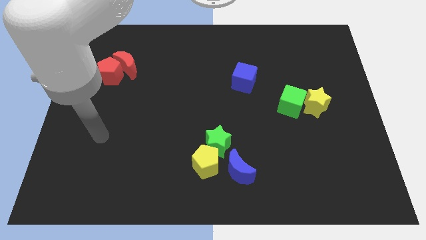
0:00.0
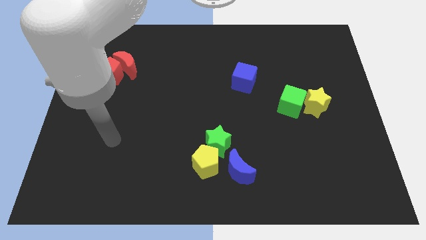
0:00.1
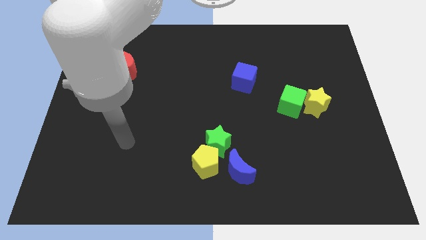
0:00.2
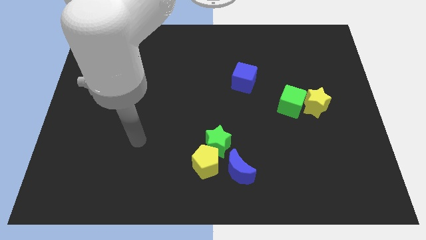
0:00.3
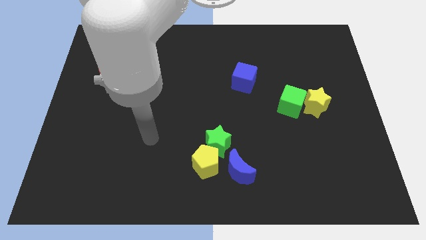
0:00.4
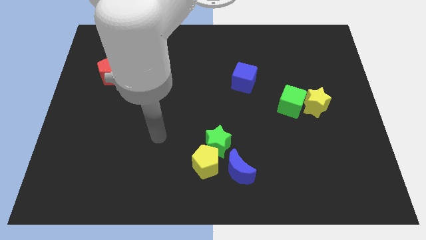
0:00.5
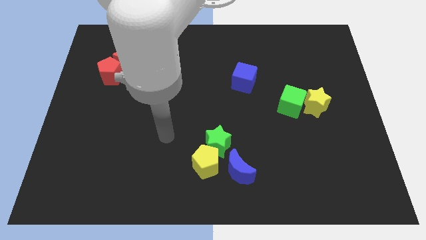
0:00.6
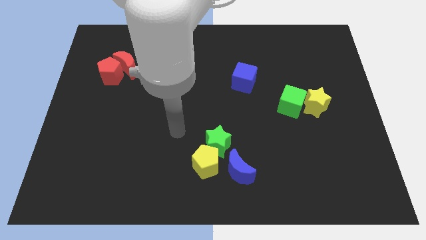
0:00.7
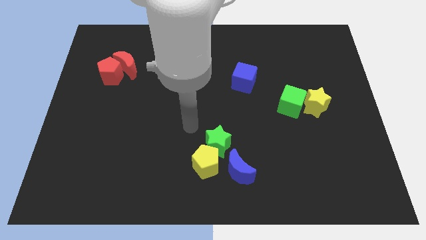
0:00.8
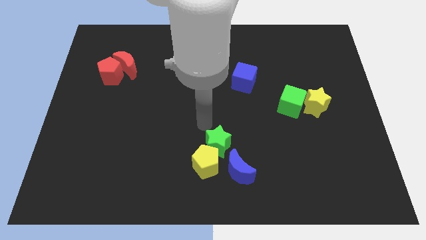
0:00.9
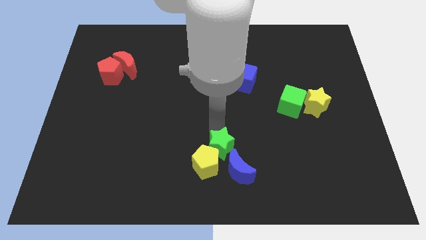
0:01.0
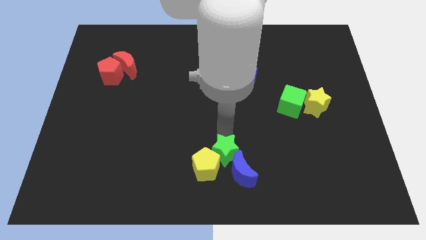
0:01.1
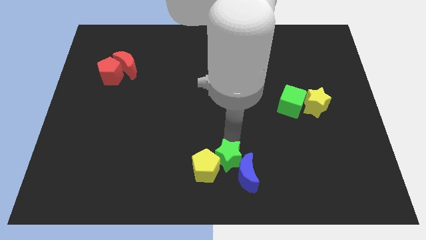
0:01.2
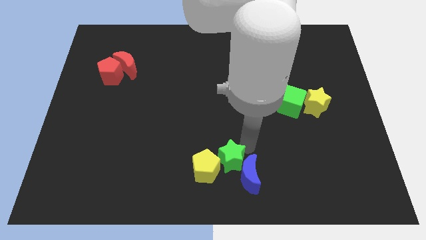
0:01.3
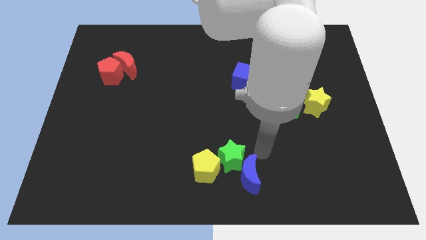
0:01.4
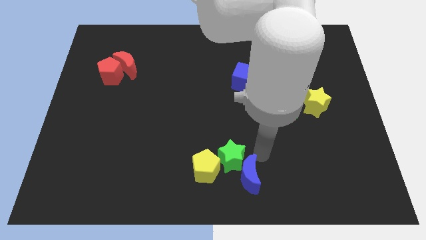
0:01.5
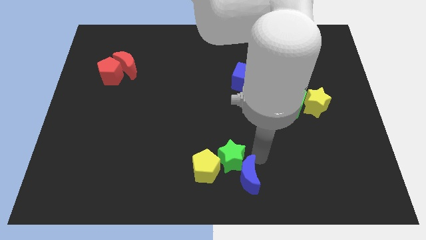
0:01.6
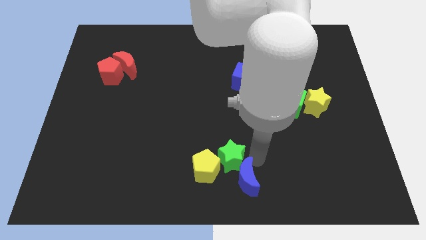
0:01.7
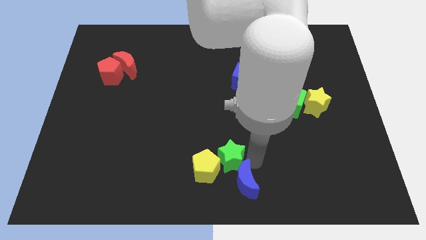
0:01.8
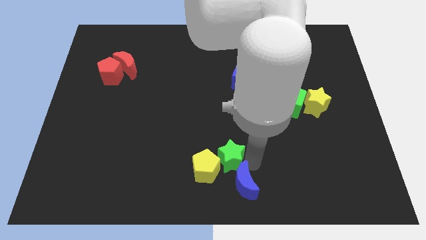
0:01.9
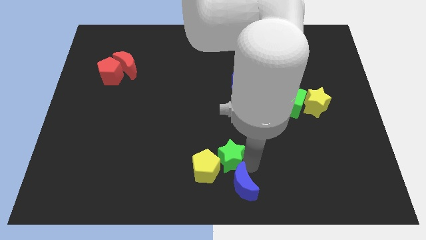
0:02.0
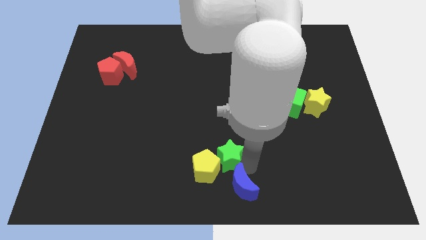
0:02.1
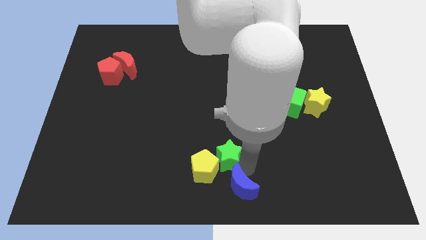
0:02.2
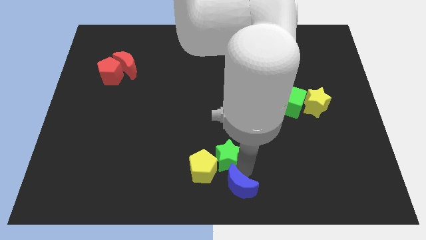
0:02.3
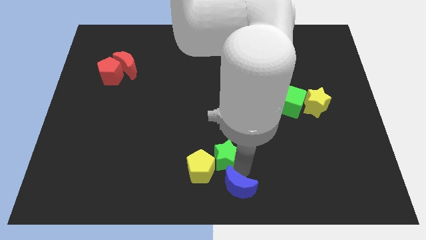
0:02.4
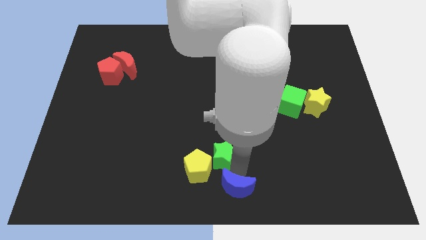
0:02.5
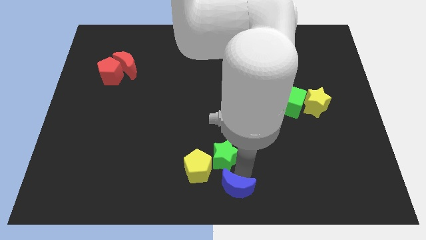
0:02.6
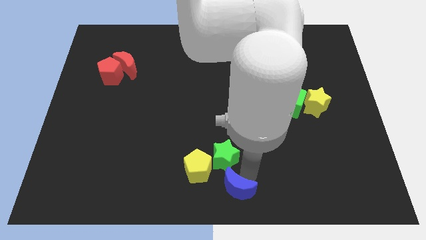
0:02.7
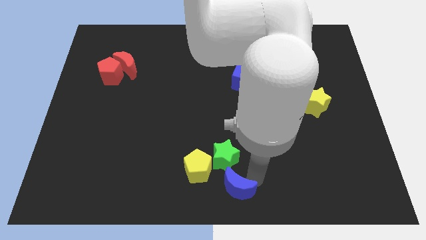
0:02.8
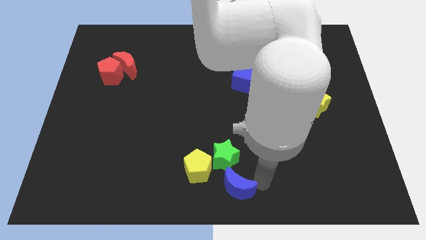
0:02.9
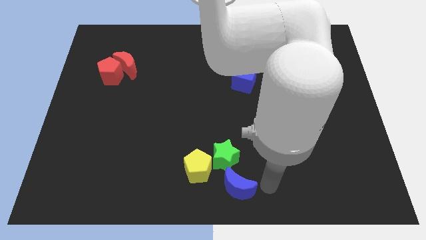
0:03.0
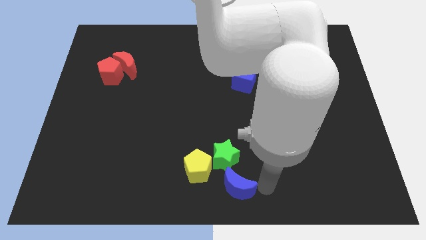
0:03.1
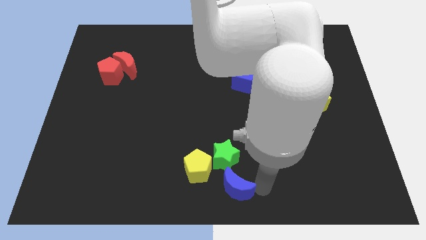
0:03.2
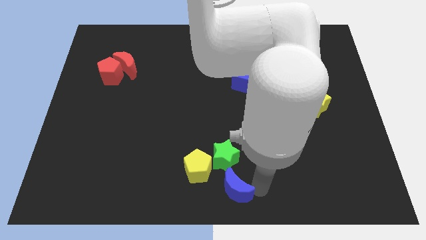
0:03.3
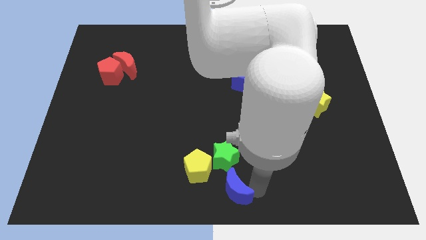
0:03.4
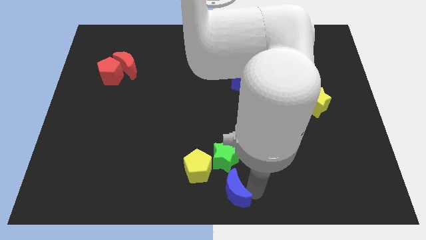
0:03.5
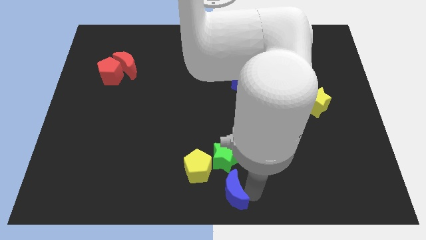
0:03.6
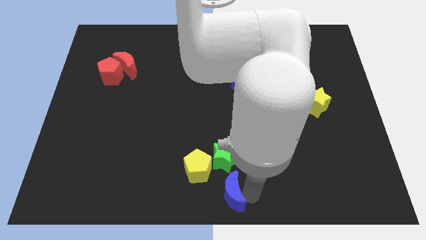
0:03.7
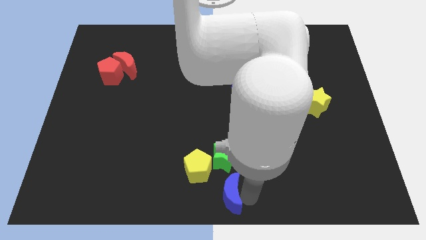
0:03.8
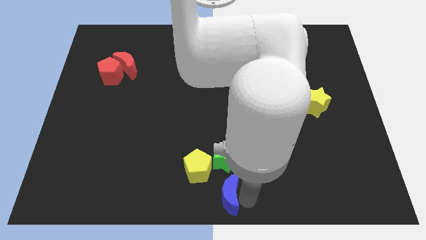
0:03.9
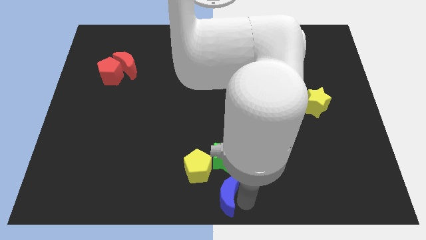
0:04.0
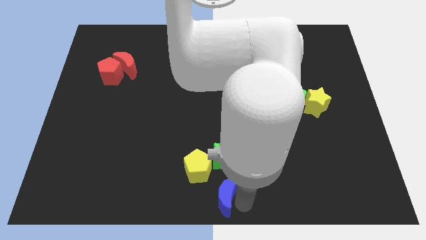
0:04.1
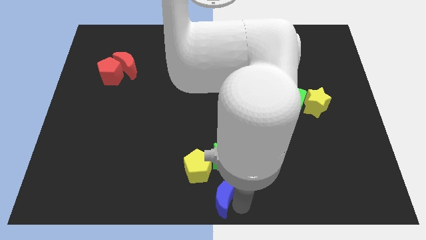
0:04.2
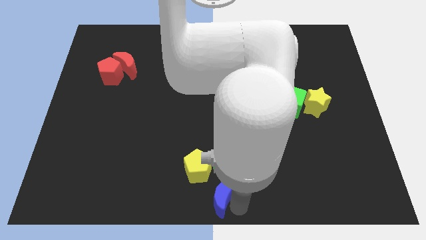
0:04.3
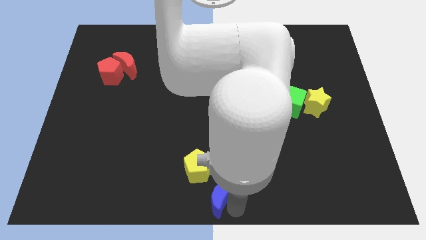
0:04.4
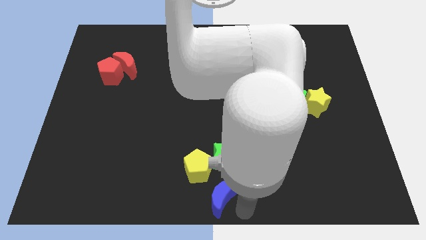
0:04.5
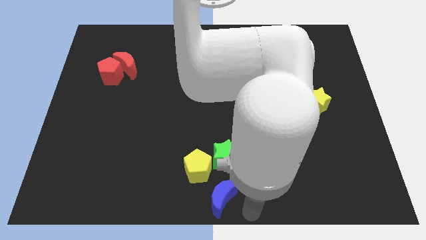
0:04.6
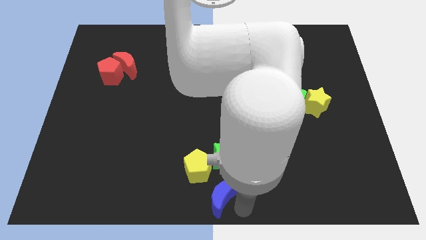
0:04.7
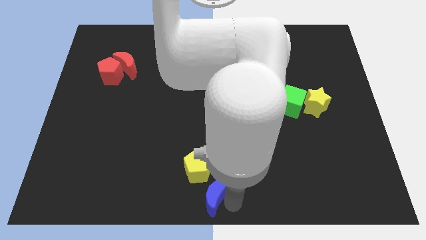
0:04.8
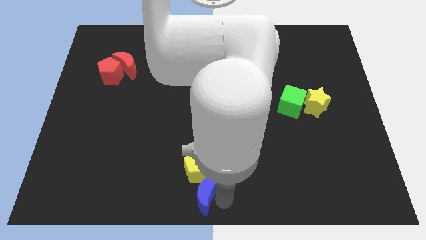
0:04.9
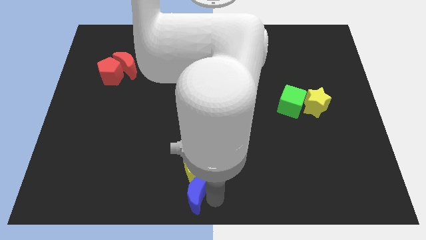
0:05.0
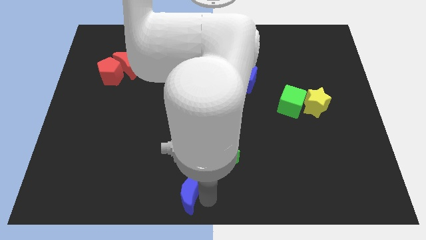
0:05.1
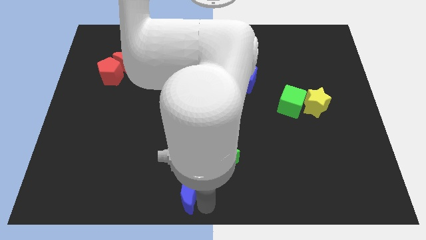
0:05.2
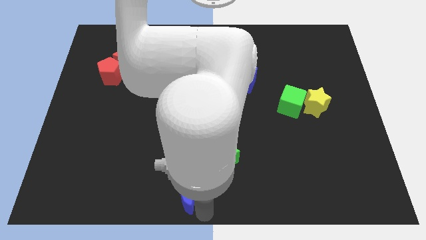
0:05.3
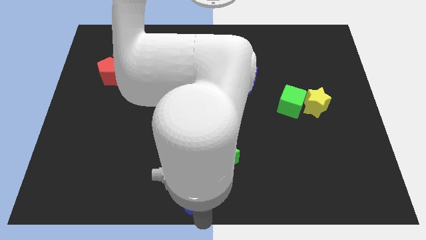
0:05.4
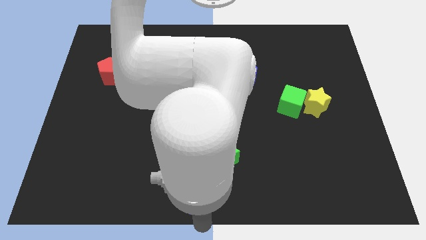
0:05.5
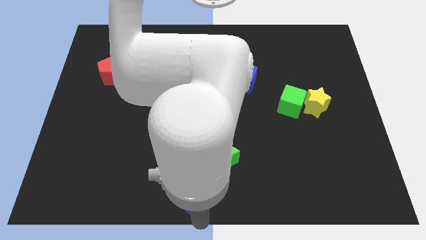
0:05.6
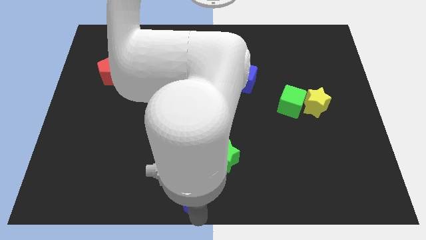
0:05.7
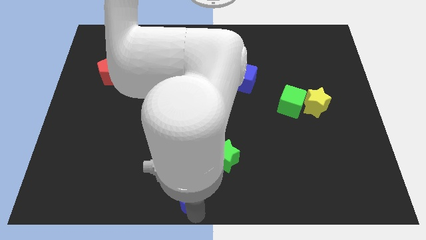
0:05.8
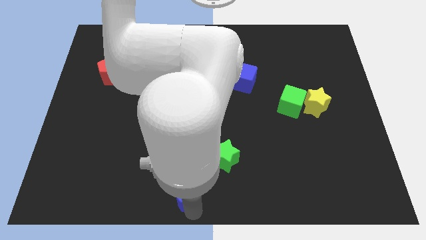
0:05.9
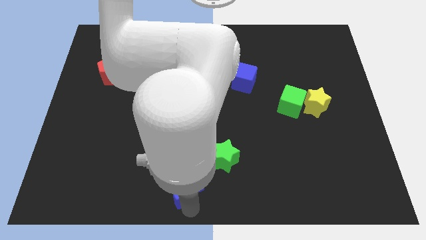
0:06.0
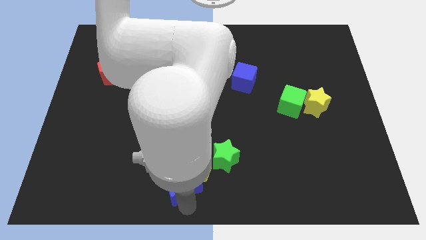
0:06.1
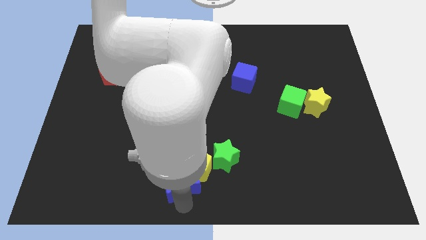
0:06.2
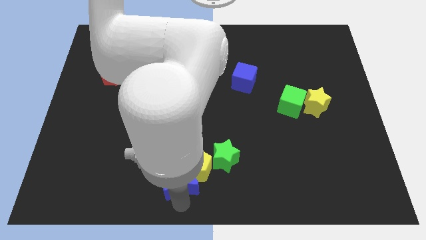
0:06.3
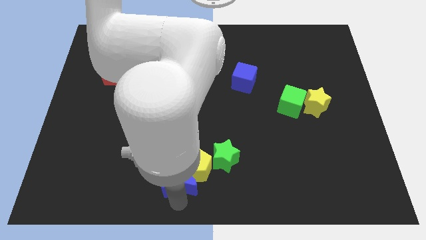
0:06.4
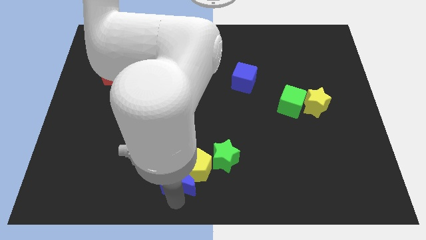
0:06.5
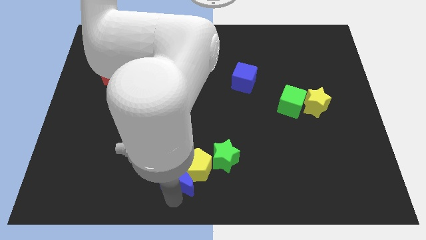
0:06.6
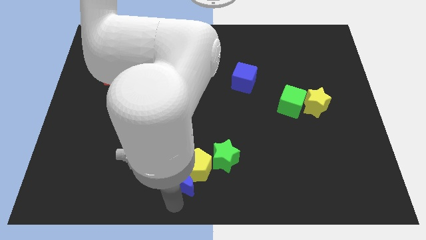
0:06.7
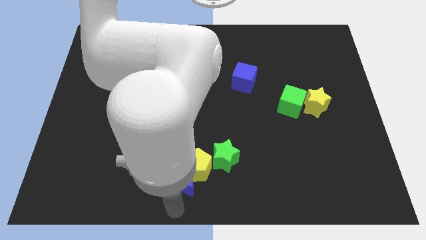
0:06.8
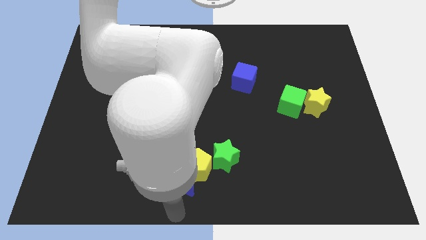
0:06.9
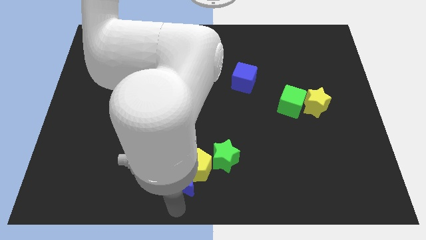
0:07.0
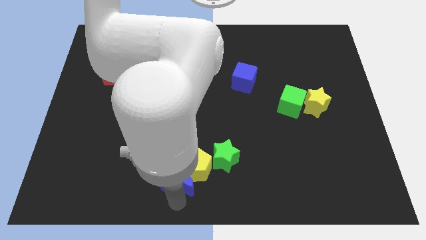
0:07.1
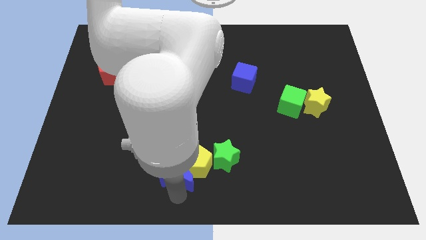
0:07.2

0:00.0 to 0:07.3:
slide the blue moon just left of the green star

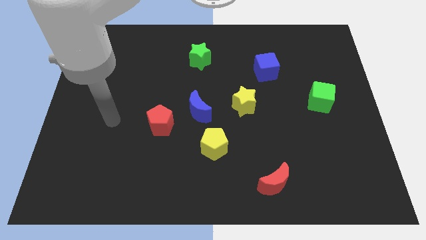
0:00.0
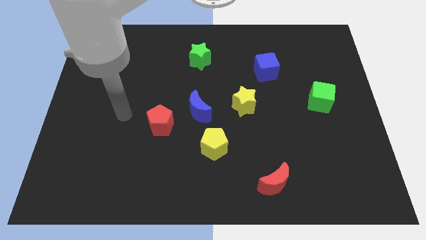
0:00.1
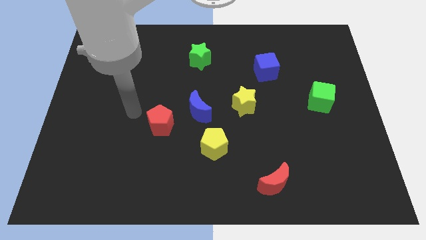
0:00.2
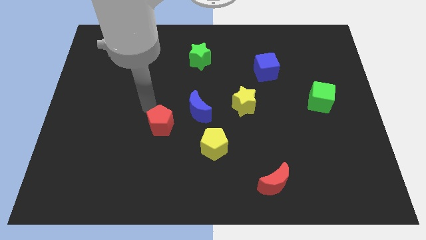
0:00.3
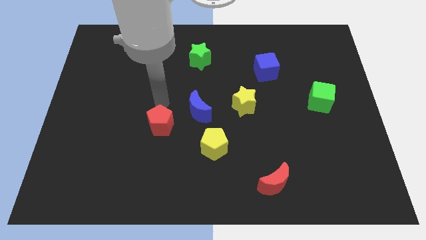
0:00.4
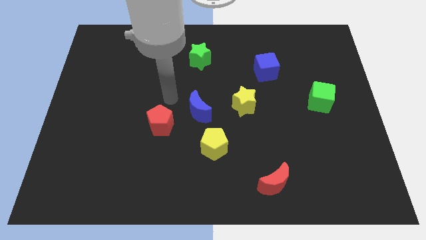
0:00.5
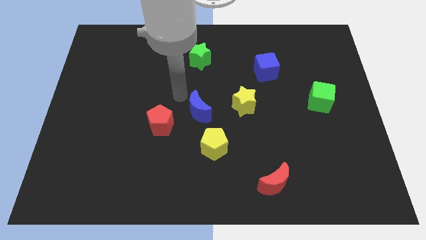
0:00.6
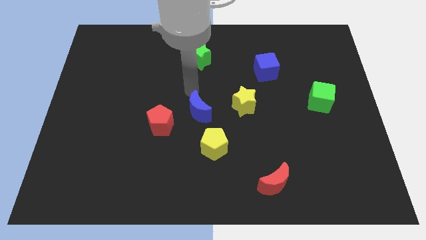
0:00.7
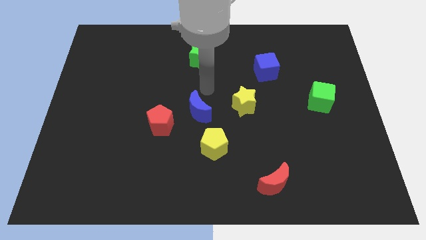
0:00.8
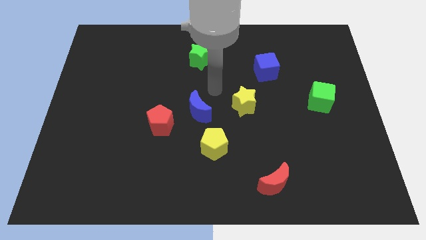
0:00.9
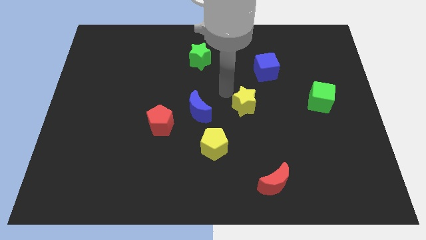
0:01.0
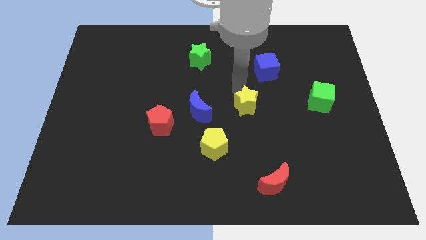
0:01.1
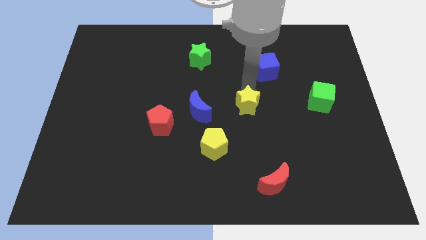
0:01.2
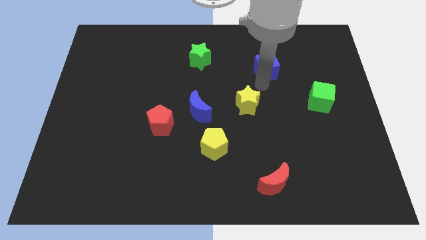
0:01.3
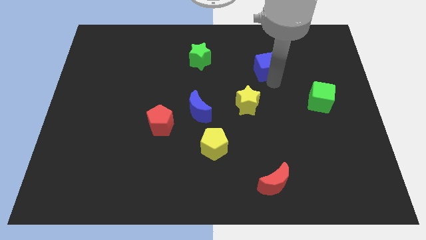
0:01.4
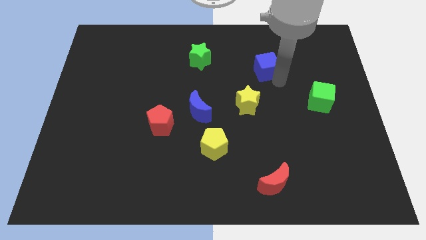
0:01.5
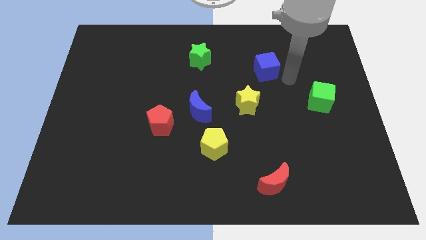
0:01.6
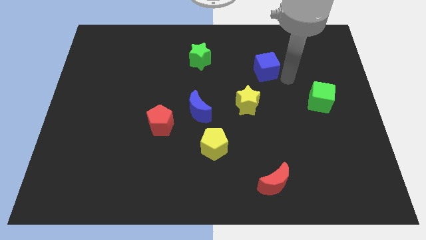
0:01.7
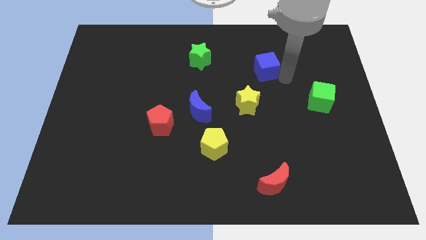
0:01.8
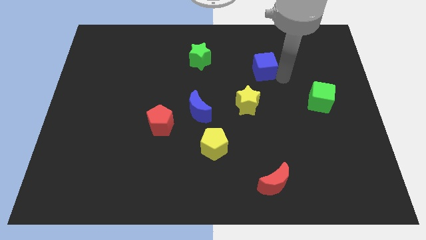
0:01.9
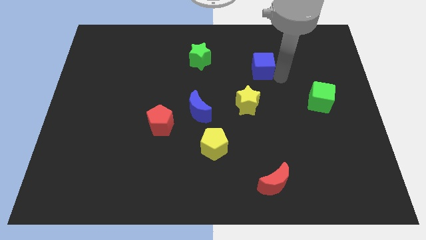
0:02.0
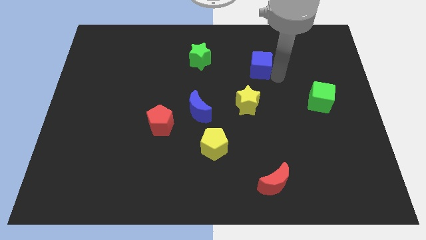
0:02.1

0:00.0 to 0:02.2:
slide the blue cube to the right of the green star
